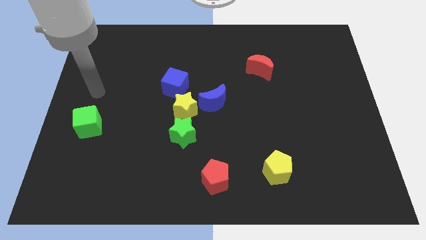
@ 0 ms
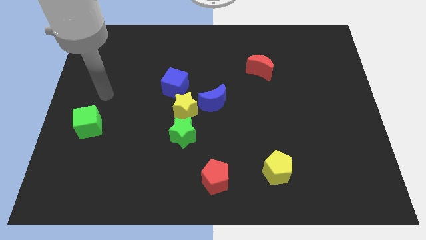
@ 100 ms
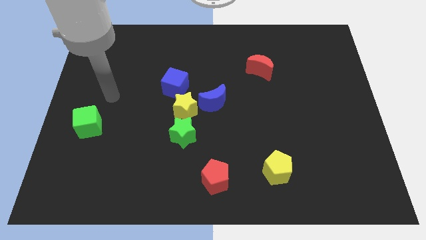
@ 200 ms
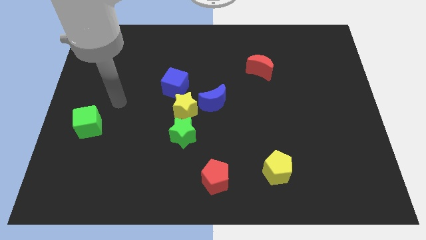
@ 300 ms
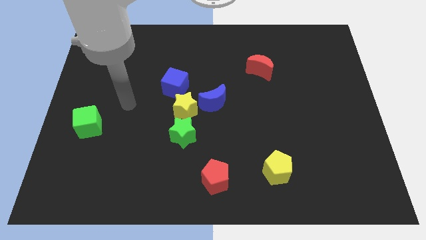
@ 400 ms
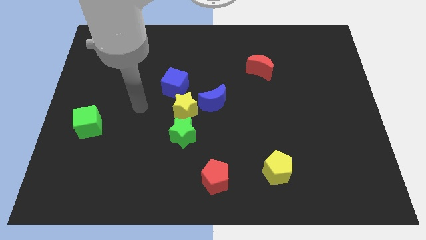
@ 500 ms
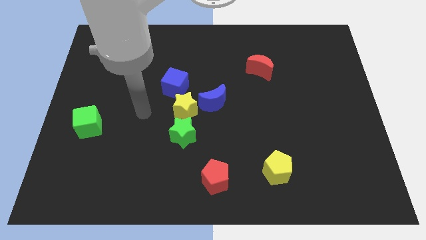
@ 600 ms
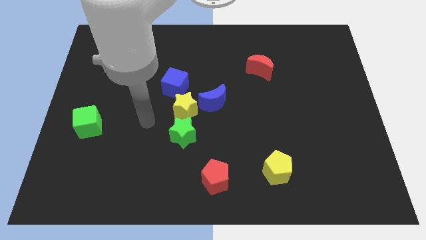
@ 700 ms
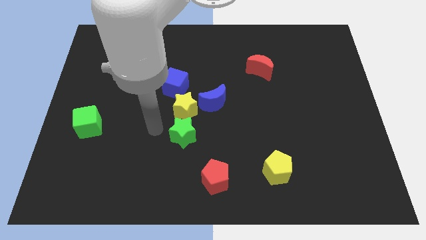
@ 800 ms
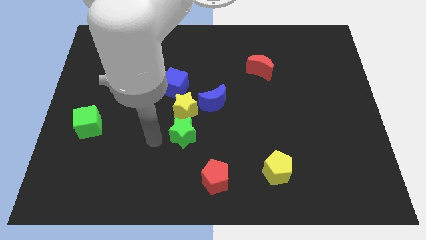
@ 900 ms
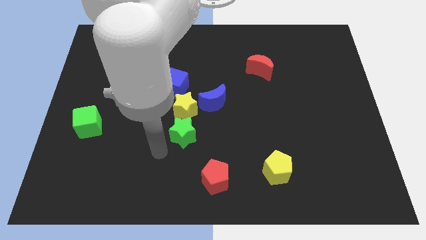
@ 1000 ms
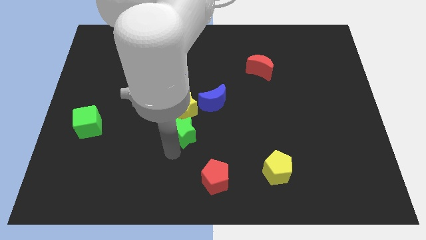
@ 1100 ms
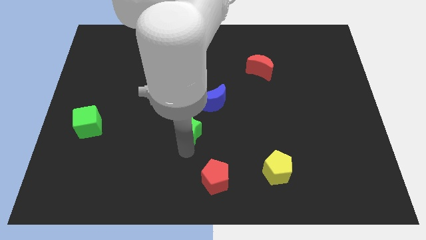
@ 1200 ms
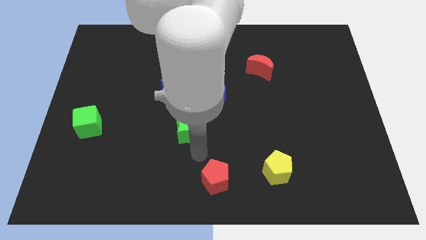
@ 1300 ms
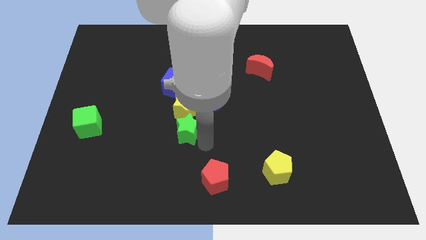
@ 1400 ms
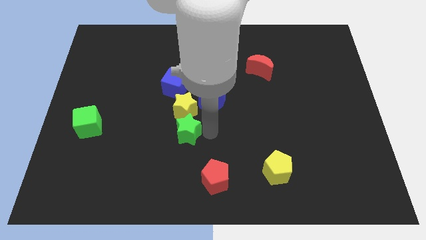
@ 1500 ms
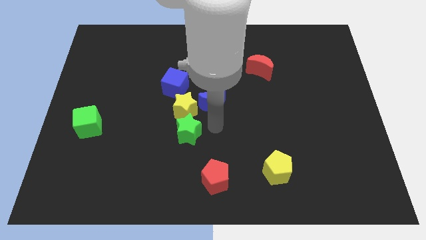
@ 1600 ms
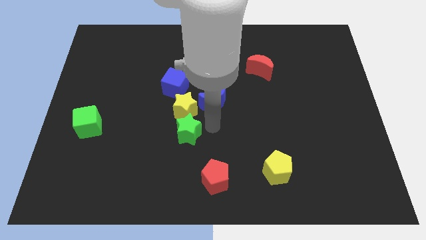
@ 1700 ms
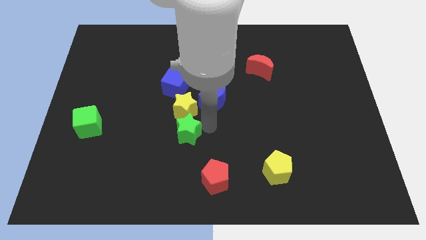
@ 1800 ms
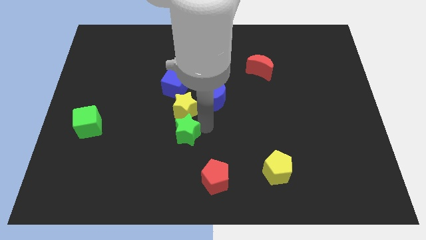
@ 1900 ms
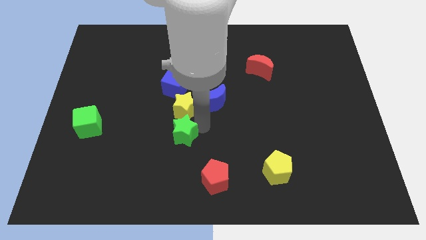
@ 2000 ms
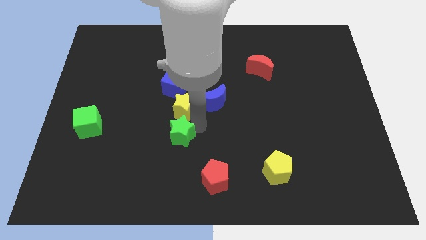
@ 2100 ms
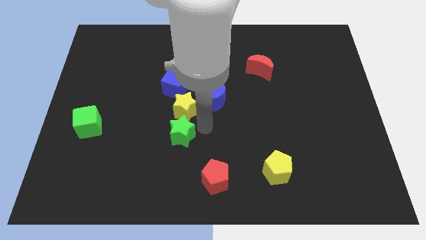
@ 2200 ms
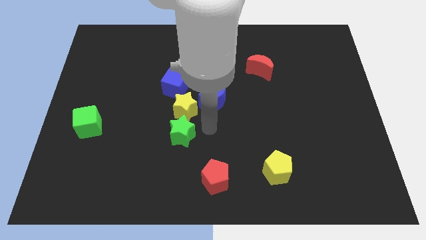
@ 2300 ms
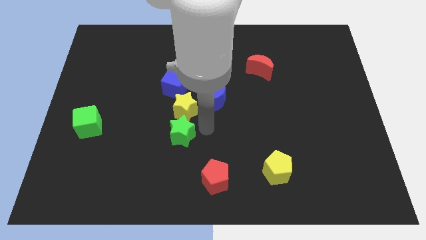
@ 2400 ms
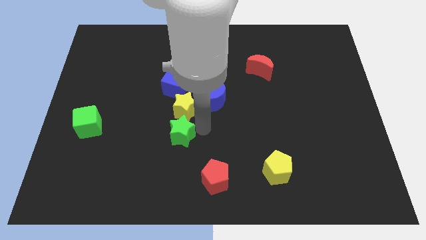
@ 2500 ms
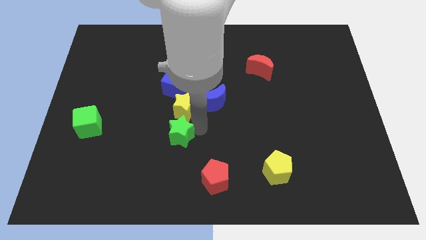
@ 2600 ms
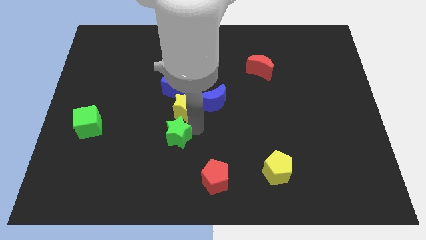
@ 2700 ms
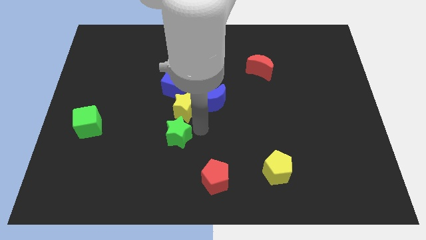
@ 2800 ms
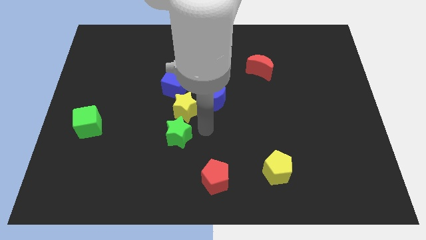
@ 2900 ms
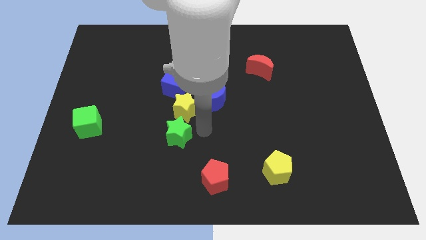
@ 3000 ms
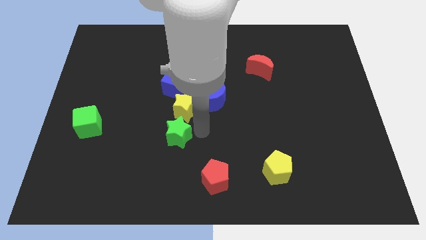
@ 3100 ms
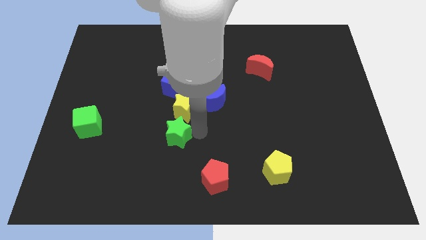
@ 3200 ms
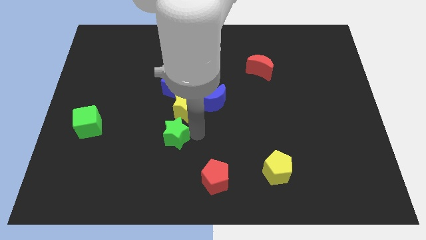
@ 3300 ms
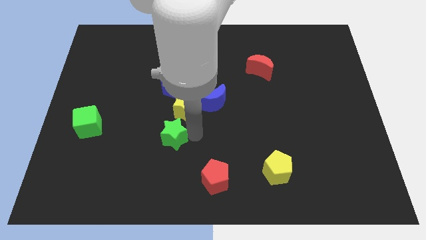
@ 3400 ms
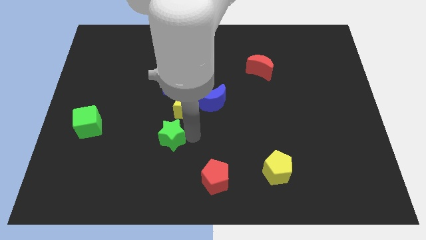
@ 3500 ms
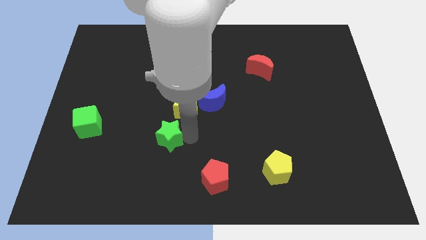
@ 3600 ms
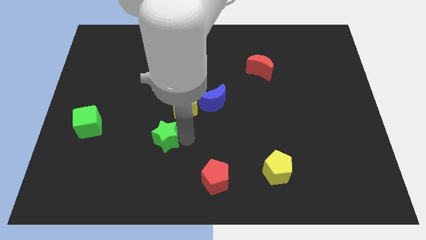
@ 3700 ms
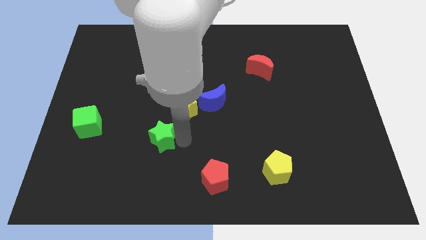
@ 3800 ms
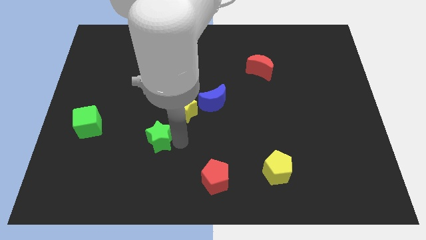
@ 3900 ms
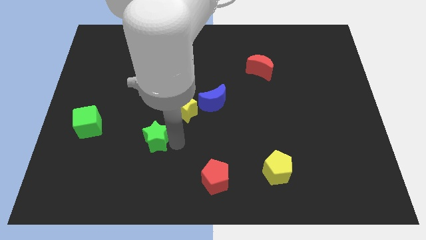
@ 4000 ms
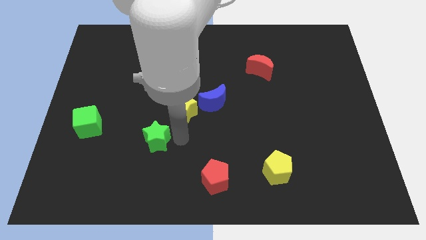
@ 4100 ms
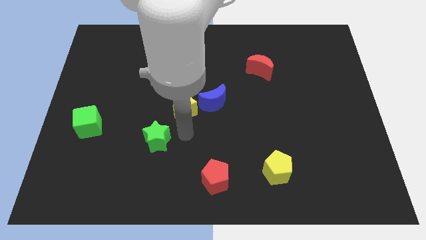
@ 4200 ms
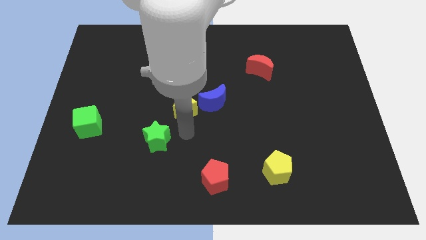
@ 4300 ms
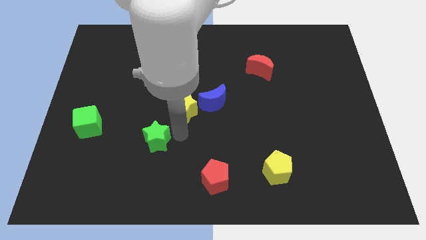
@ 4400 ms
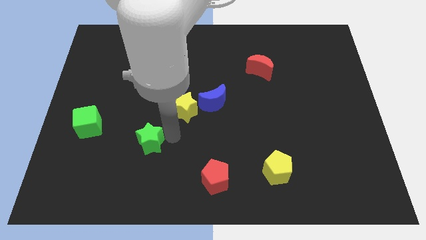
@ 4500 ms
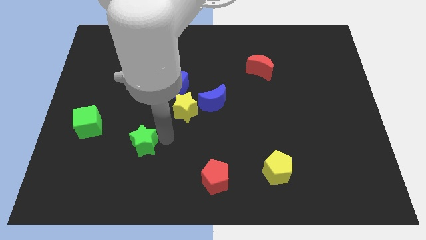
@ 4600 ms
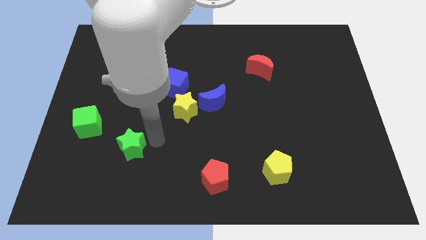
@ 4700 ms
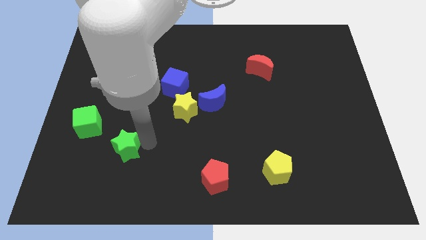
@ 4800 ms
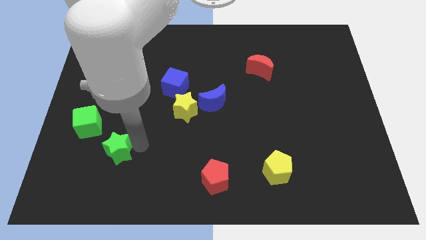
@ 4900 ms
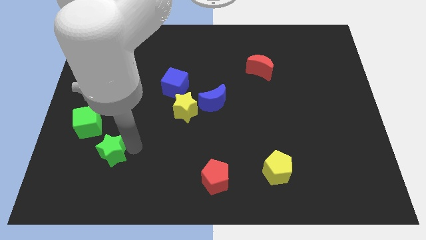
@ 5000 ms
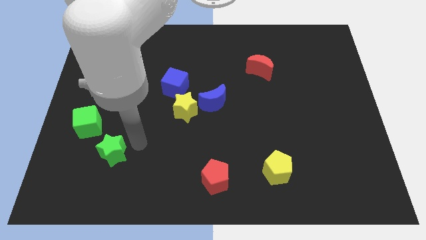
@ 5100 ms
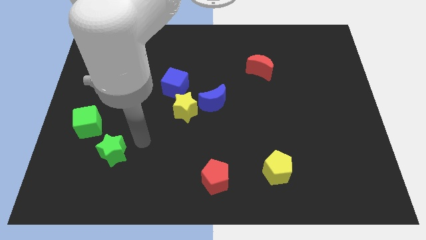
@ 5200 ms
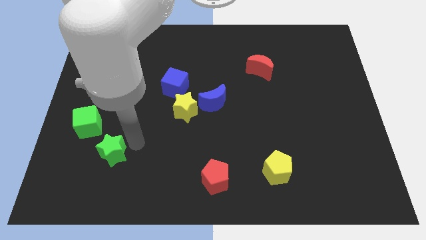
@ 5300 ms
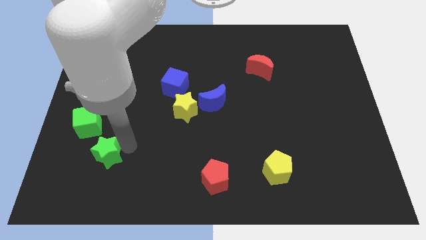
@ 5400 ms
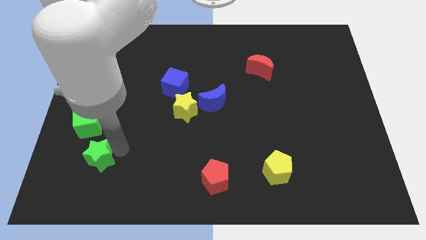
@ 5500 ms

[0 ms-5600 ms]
slide the green star below the green cube

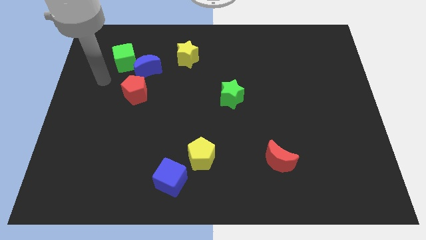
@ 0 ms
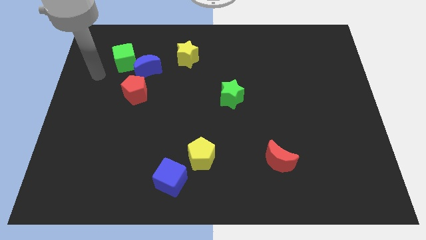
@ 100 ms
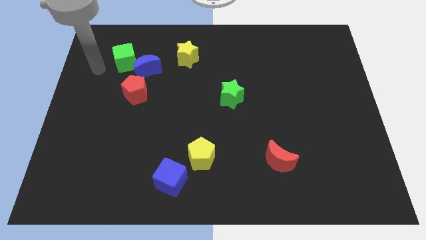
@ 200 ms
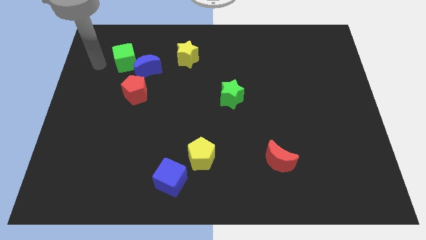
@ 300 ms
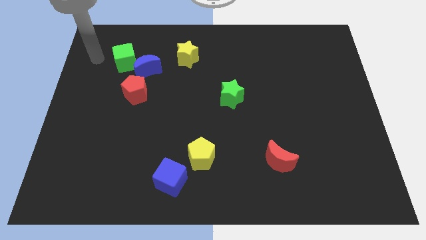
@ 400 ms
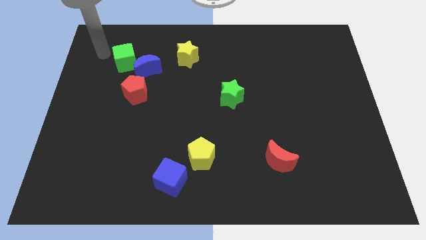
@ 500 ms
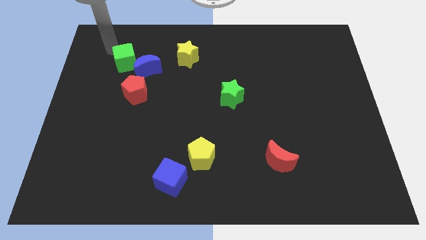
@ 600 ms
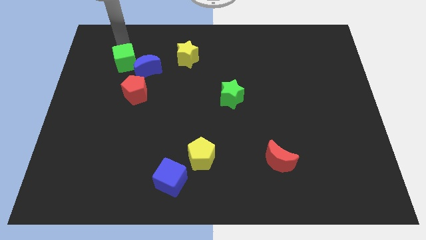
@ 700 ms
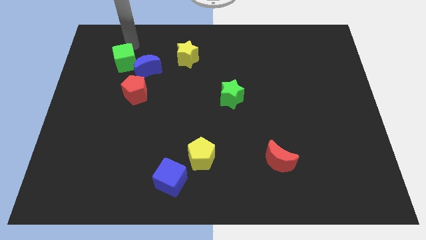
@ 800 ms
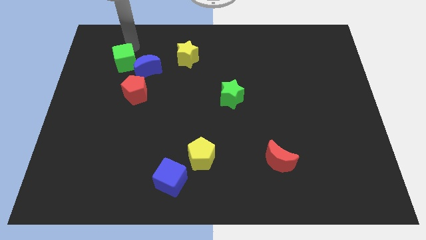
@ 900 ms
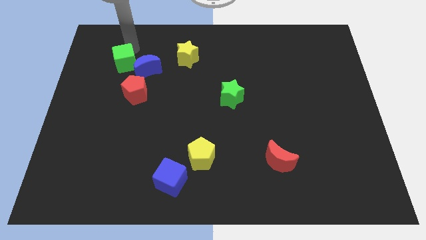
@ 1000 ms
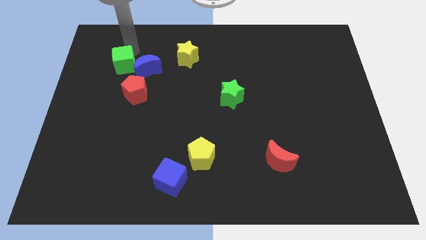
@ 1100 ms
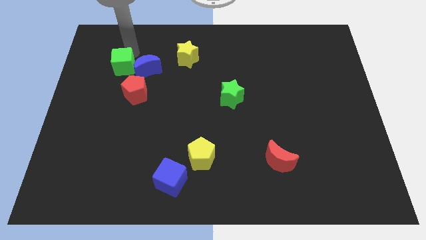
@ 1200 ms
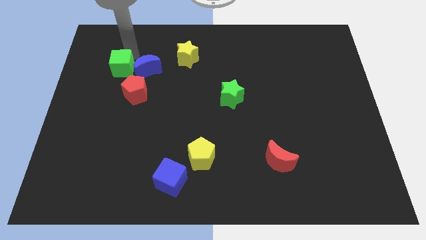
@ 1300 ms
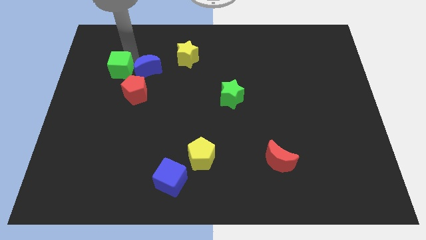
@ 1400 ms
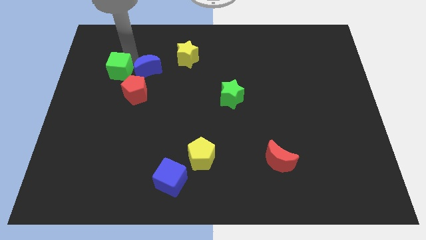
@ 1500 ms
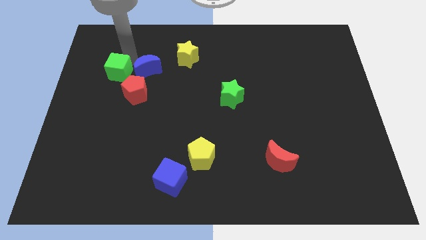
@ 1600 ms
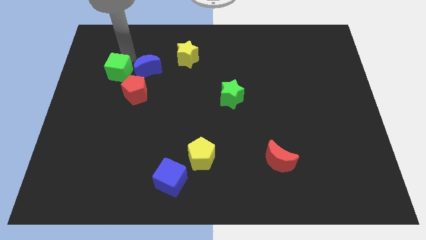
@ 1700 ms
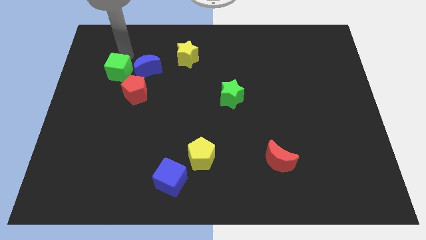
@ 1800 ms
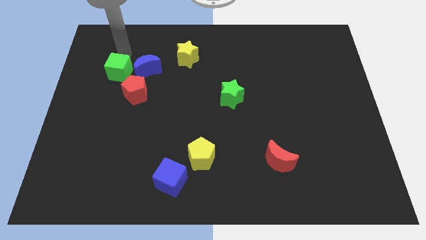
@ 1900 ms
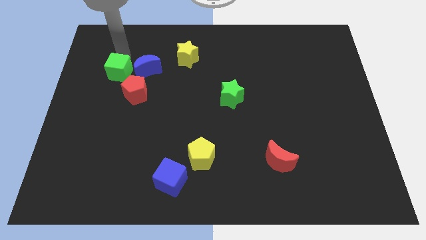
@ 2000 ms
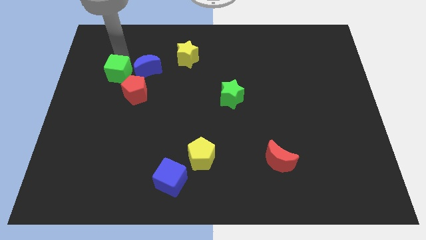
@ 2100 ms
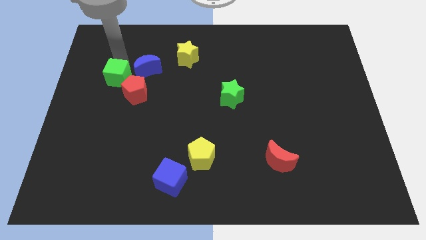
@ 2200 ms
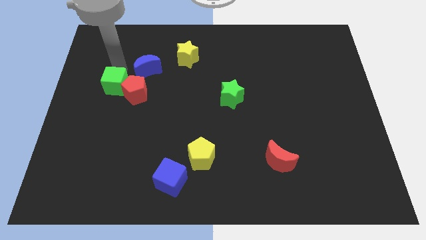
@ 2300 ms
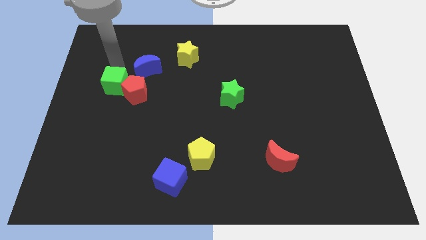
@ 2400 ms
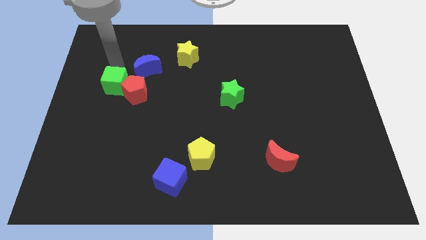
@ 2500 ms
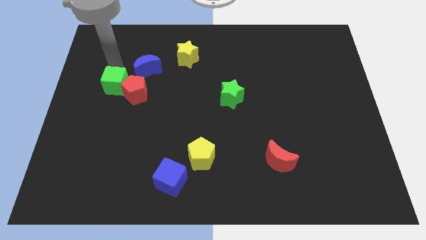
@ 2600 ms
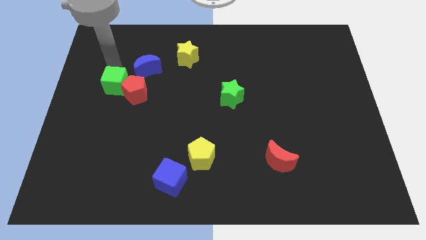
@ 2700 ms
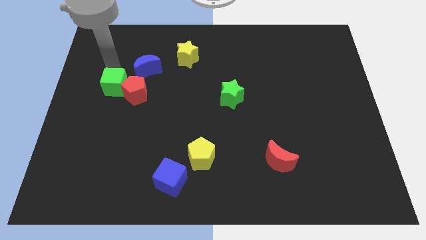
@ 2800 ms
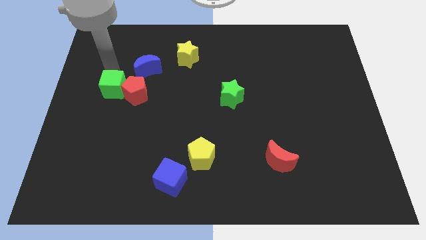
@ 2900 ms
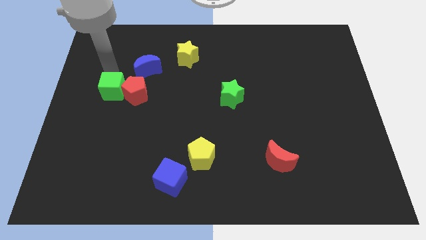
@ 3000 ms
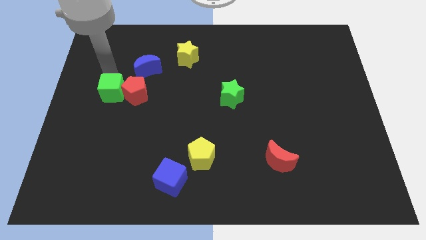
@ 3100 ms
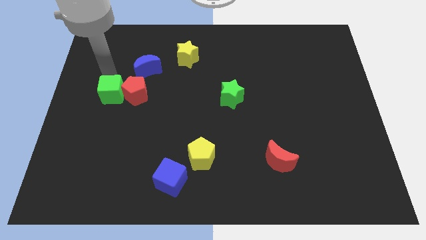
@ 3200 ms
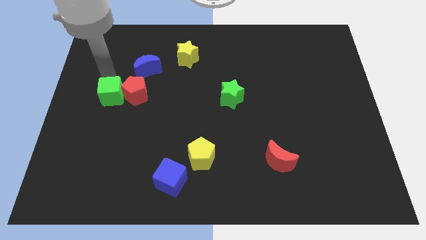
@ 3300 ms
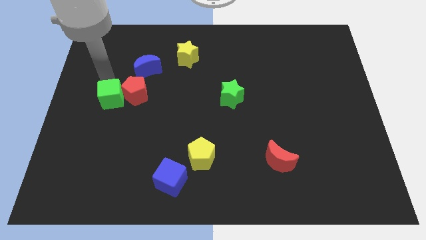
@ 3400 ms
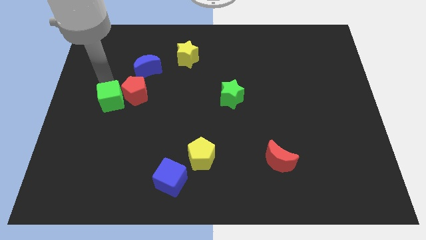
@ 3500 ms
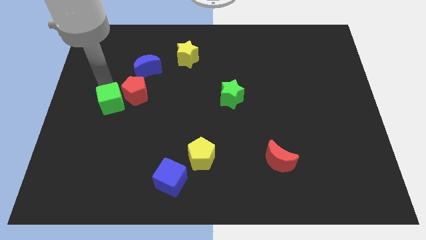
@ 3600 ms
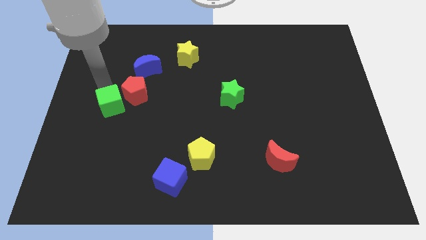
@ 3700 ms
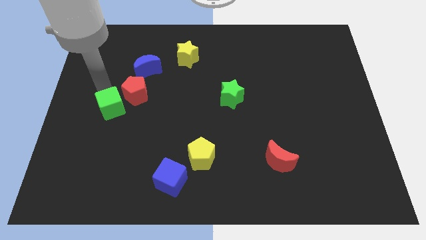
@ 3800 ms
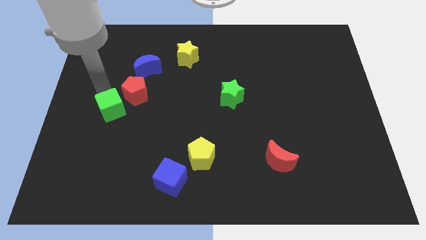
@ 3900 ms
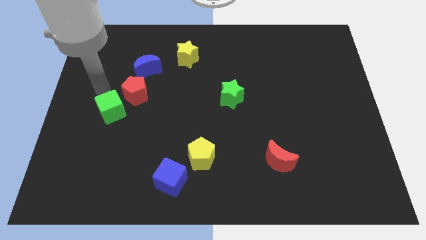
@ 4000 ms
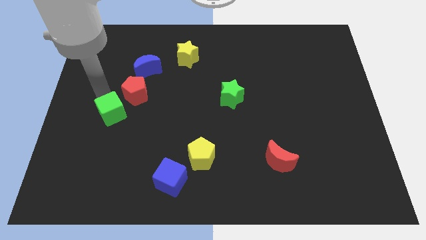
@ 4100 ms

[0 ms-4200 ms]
slide the green cube below the red pentagon
